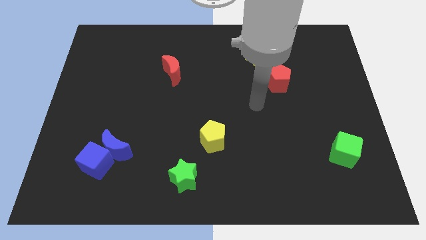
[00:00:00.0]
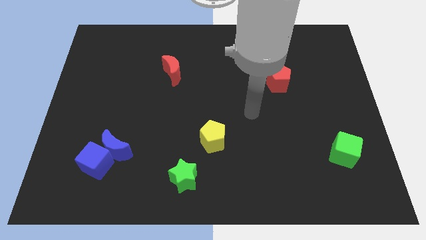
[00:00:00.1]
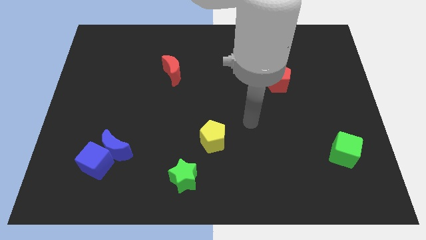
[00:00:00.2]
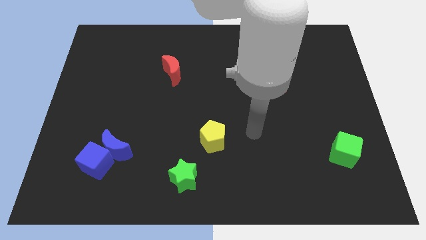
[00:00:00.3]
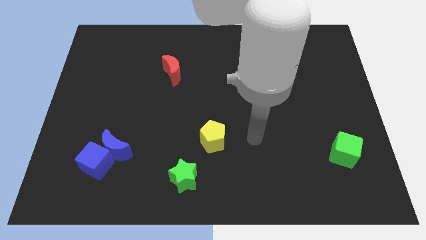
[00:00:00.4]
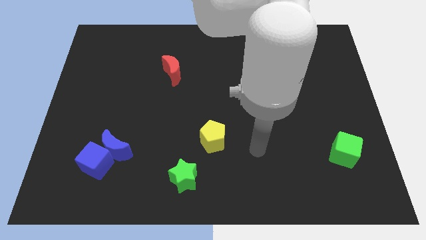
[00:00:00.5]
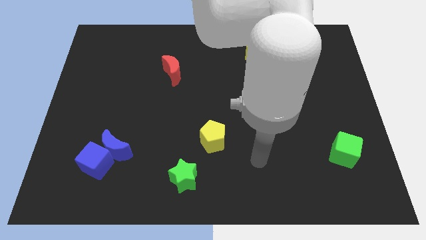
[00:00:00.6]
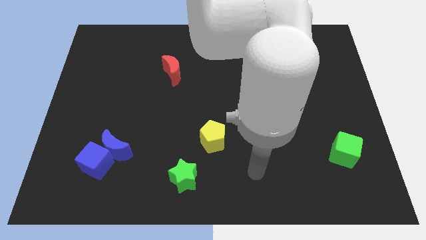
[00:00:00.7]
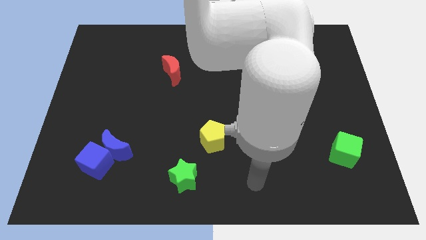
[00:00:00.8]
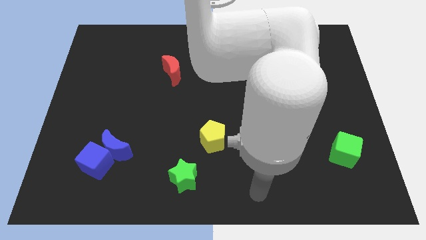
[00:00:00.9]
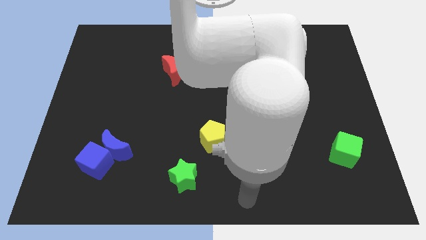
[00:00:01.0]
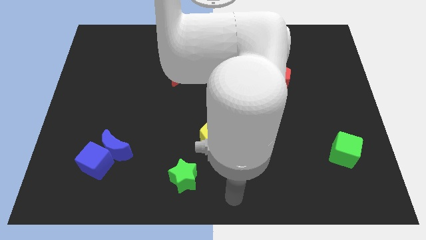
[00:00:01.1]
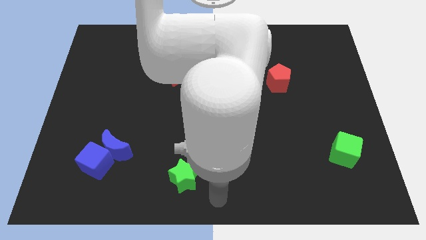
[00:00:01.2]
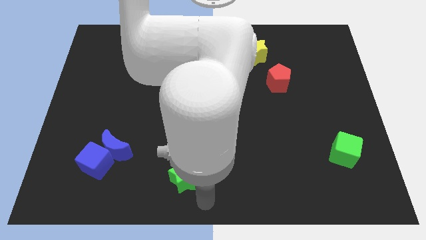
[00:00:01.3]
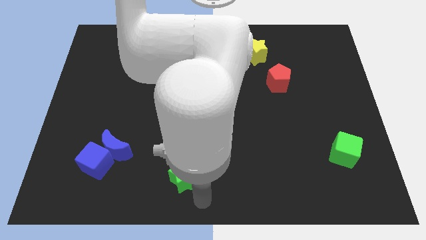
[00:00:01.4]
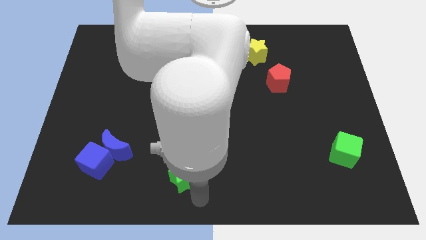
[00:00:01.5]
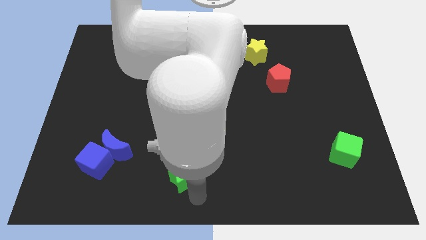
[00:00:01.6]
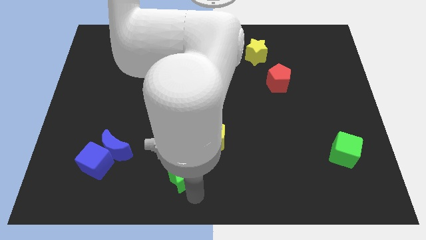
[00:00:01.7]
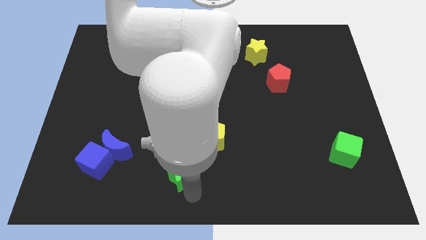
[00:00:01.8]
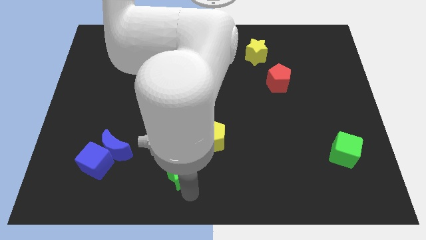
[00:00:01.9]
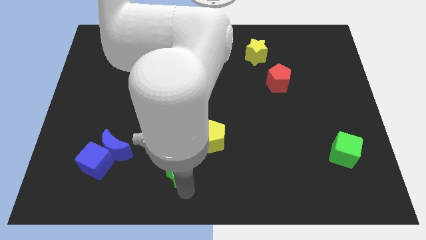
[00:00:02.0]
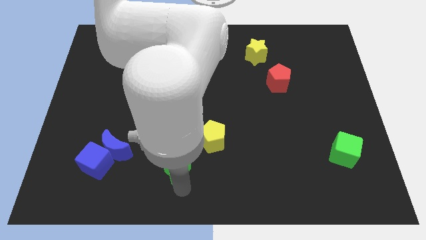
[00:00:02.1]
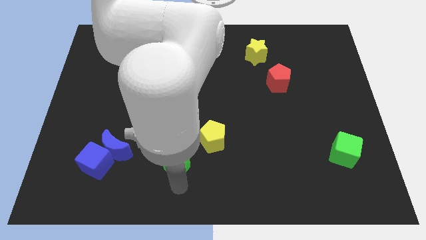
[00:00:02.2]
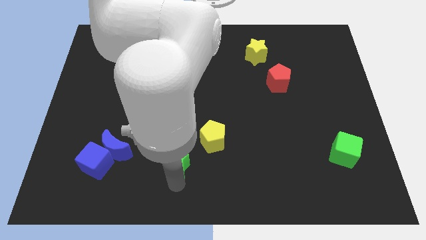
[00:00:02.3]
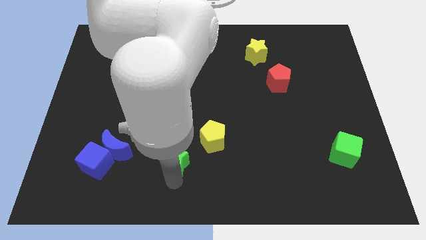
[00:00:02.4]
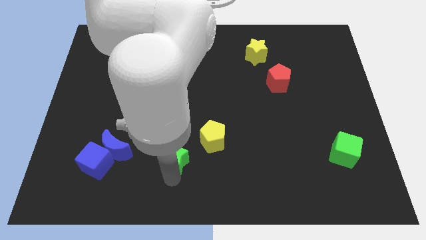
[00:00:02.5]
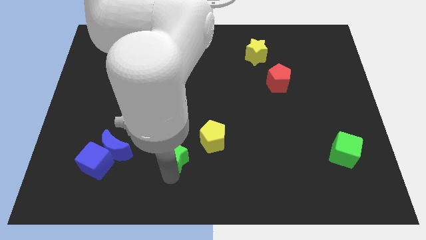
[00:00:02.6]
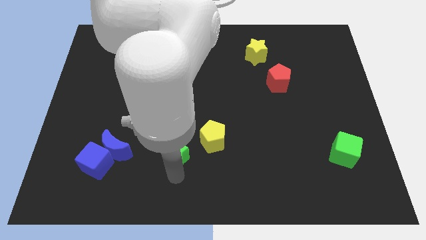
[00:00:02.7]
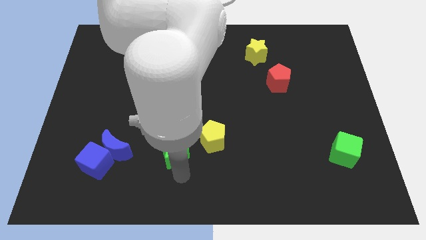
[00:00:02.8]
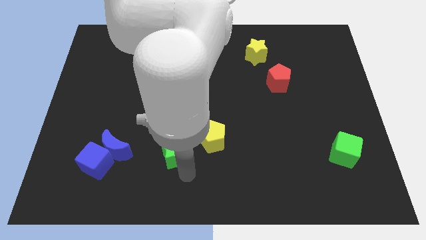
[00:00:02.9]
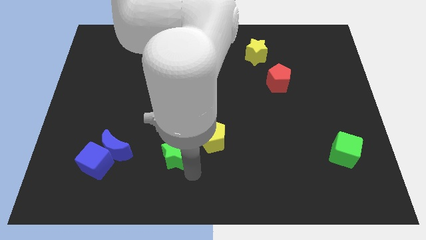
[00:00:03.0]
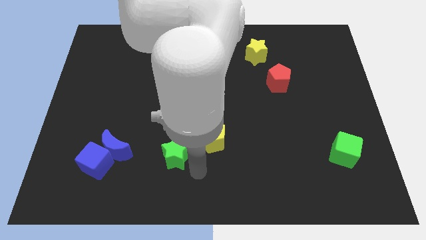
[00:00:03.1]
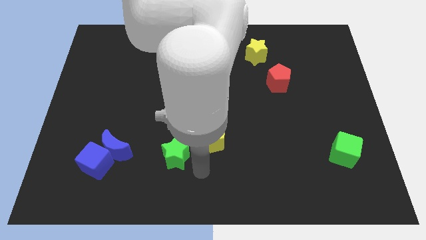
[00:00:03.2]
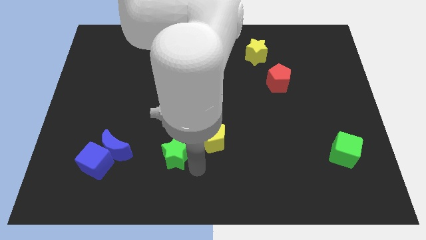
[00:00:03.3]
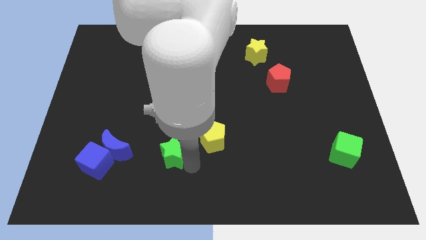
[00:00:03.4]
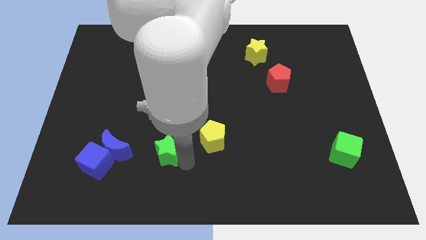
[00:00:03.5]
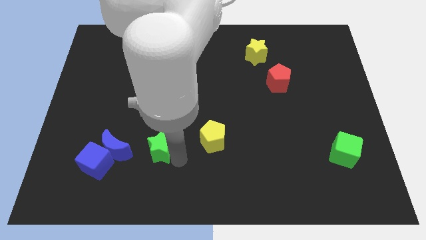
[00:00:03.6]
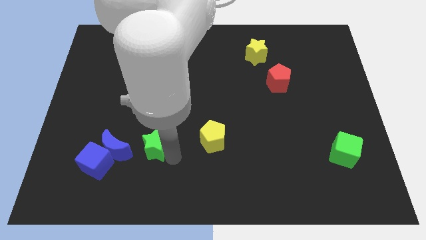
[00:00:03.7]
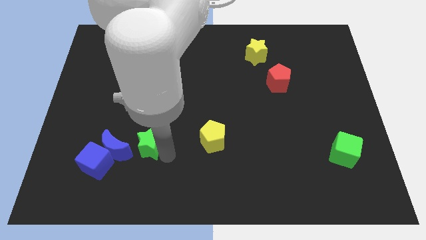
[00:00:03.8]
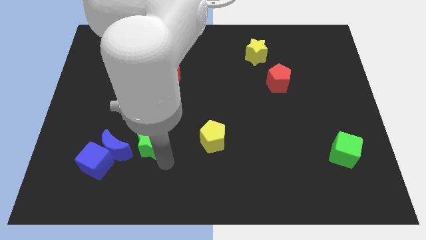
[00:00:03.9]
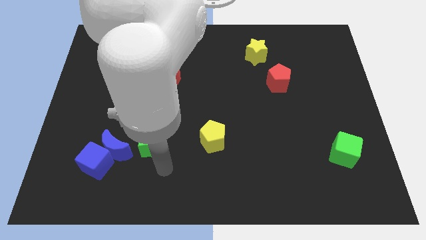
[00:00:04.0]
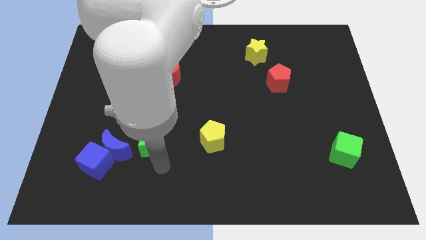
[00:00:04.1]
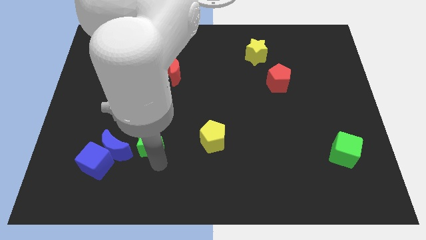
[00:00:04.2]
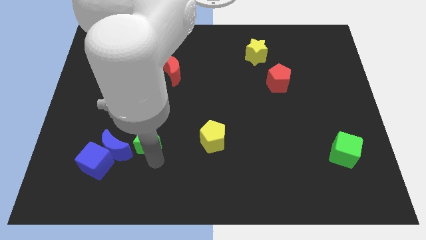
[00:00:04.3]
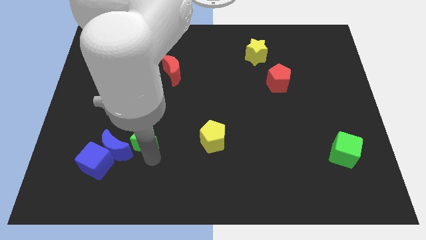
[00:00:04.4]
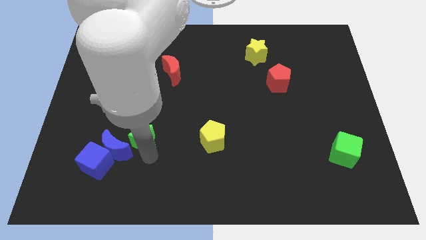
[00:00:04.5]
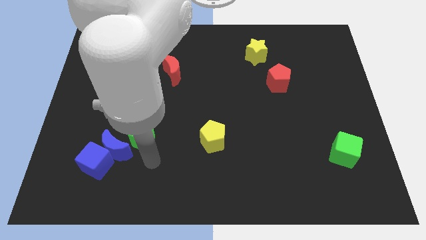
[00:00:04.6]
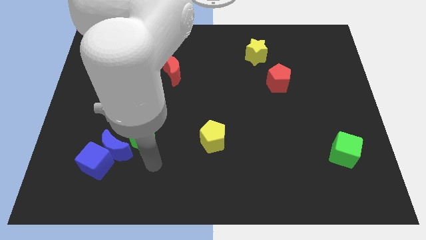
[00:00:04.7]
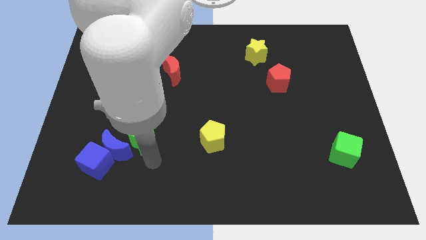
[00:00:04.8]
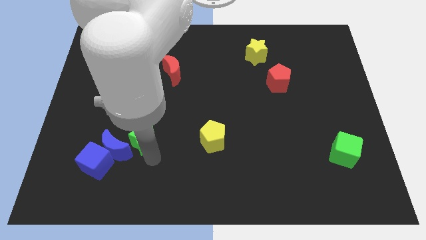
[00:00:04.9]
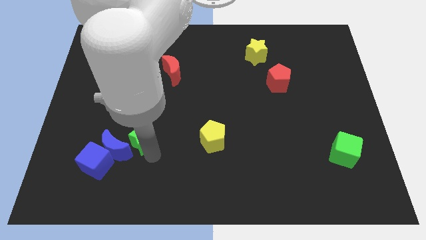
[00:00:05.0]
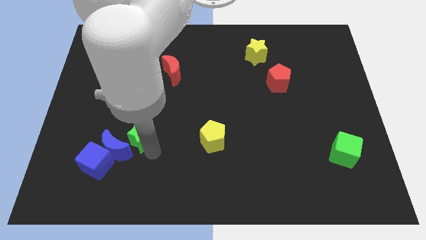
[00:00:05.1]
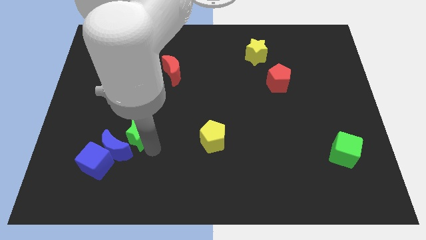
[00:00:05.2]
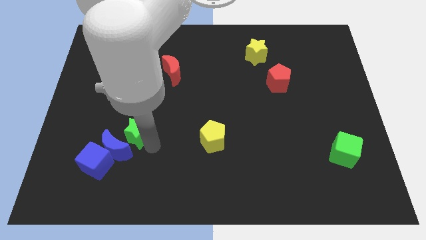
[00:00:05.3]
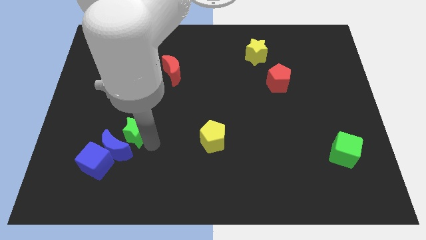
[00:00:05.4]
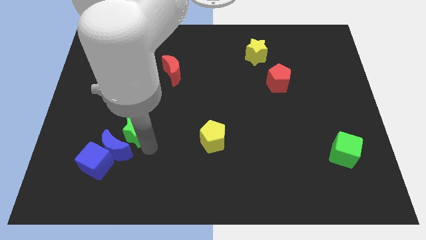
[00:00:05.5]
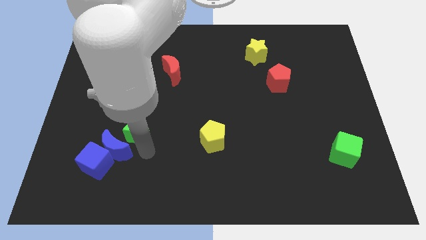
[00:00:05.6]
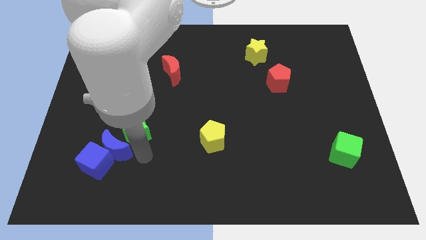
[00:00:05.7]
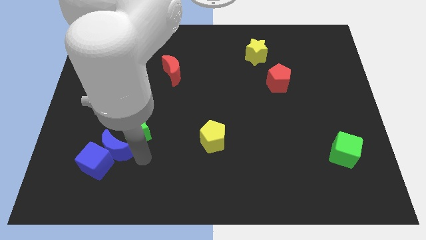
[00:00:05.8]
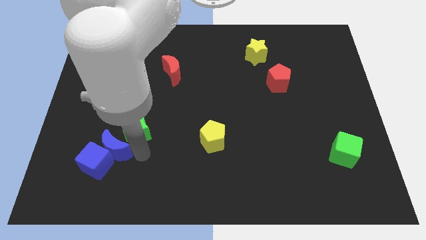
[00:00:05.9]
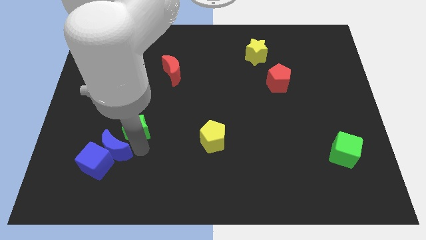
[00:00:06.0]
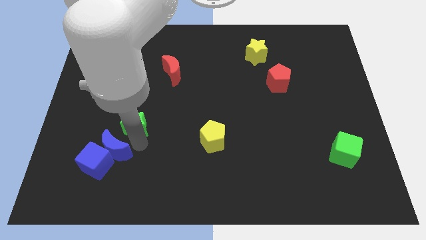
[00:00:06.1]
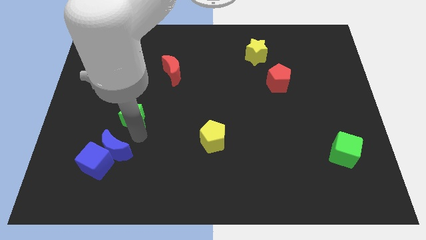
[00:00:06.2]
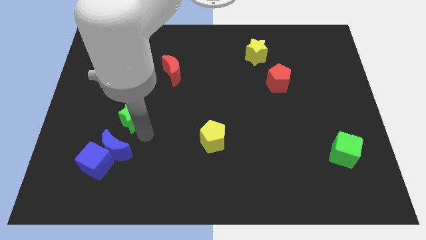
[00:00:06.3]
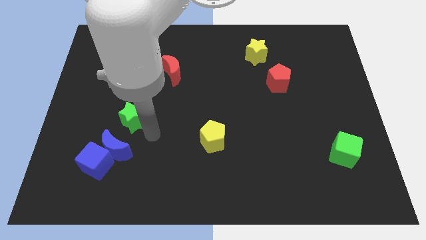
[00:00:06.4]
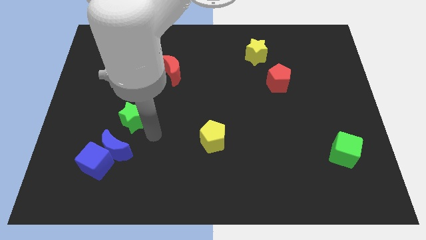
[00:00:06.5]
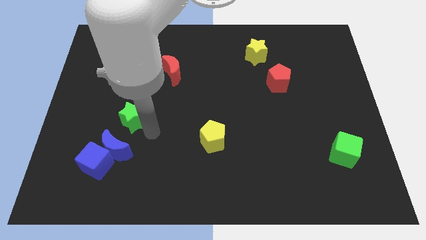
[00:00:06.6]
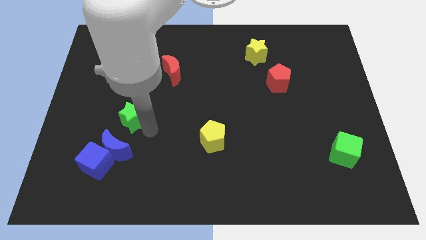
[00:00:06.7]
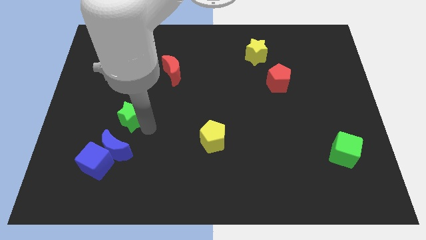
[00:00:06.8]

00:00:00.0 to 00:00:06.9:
push the green star up and to the left diagonally

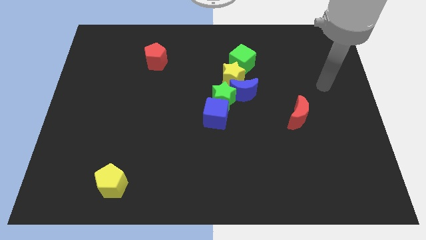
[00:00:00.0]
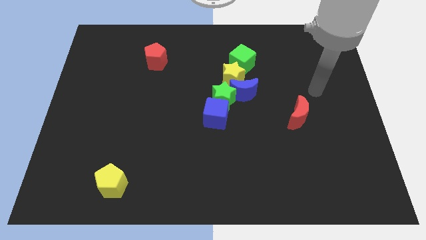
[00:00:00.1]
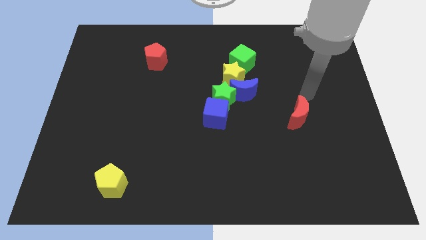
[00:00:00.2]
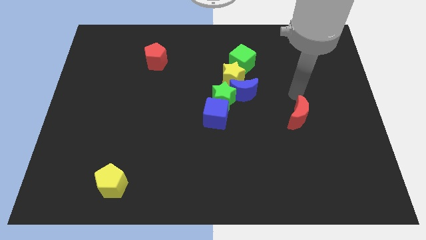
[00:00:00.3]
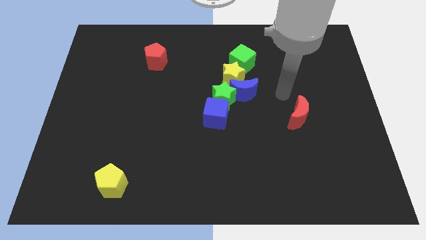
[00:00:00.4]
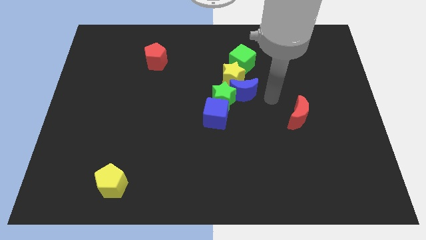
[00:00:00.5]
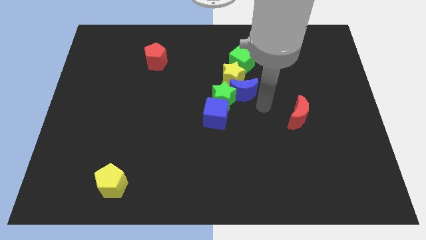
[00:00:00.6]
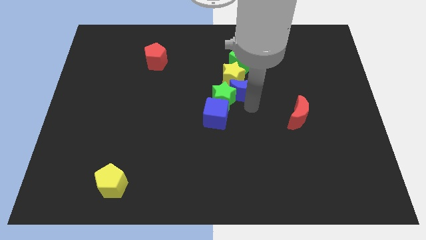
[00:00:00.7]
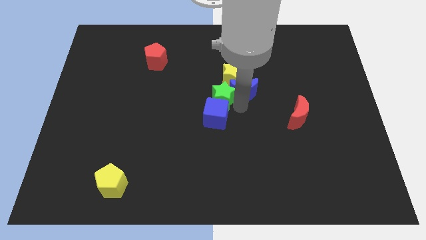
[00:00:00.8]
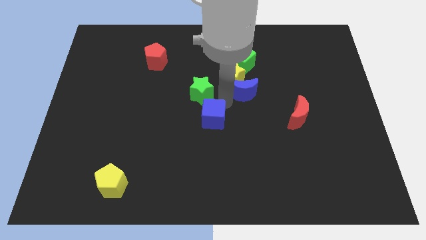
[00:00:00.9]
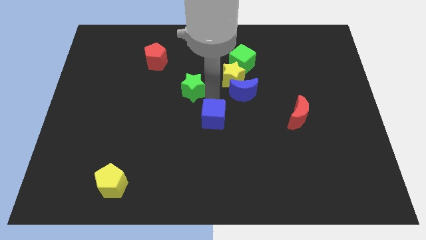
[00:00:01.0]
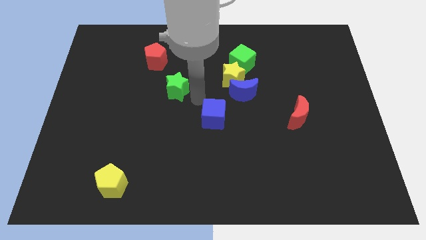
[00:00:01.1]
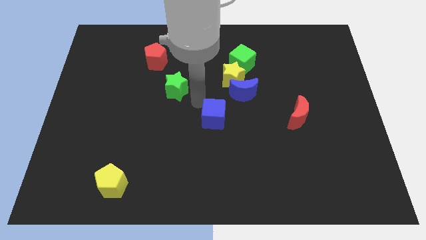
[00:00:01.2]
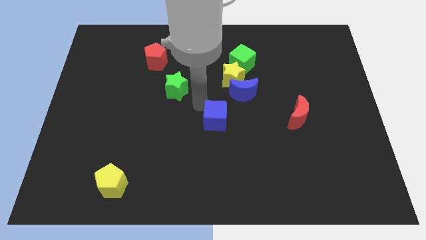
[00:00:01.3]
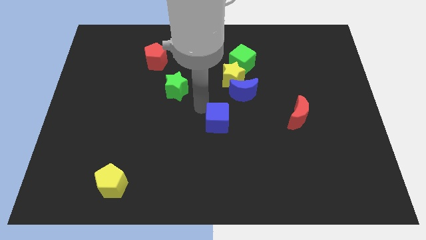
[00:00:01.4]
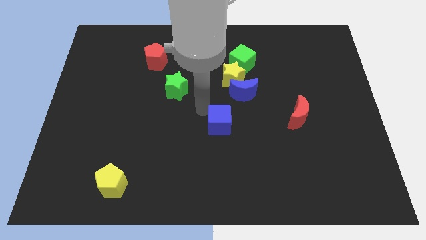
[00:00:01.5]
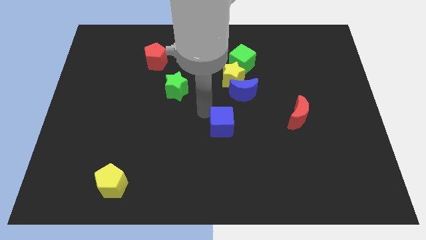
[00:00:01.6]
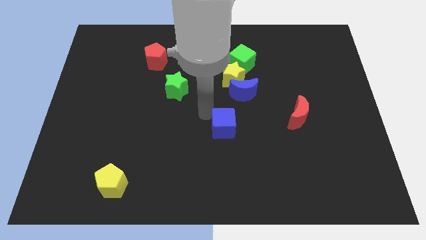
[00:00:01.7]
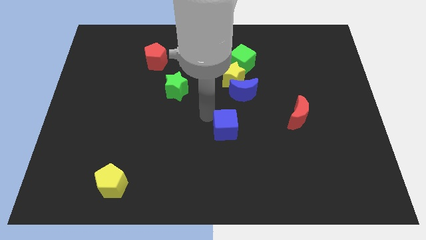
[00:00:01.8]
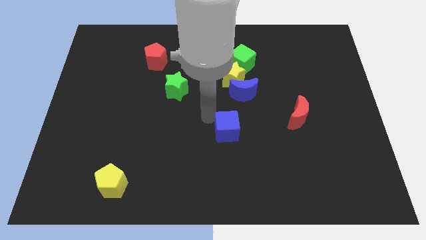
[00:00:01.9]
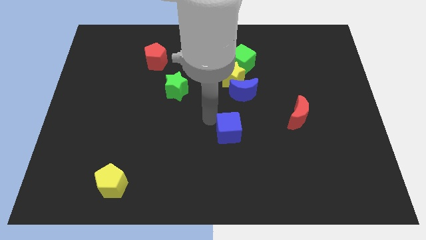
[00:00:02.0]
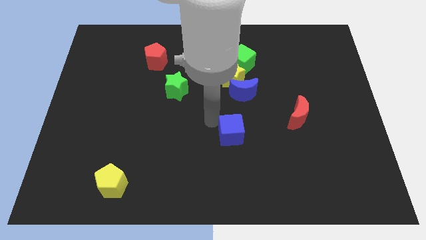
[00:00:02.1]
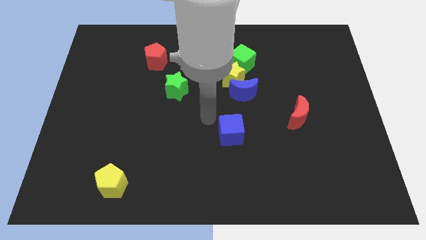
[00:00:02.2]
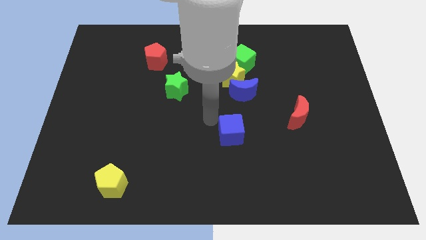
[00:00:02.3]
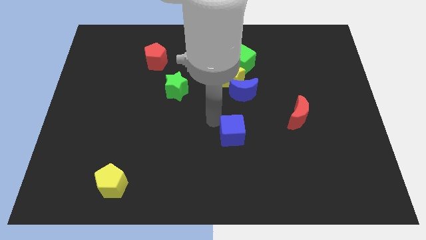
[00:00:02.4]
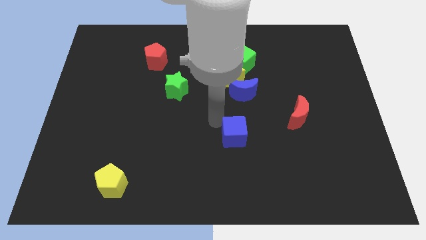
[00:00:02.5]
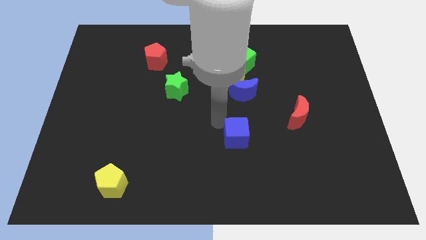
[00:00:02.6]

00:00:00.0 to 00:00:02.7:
slightly slide the blue cube down and right
